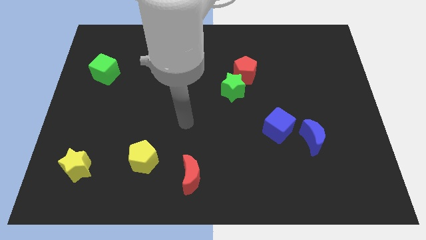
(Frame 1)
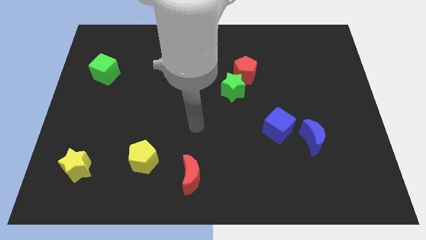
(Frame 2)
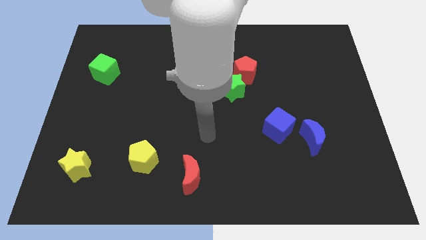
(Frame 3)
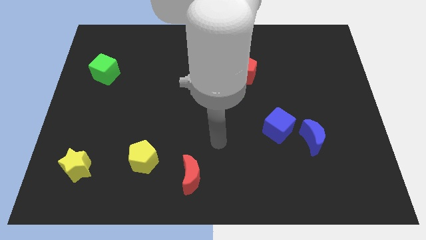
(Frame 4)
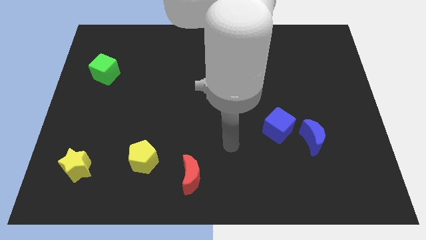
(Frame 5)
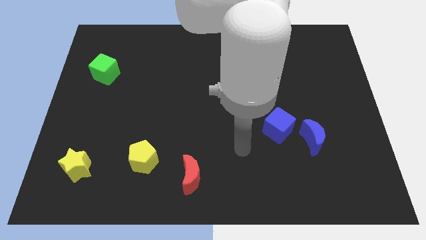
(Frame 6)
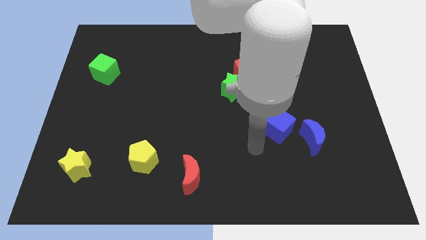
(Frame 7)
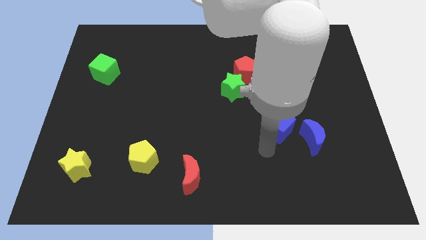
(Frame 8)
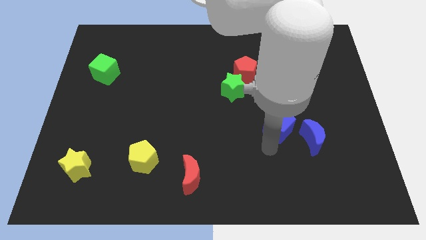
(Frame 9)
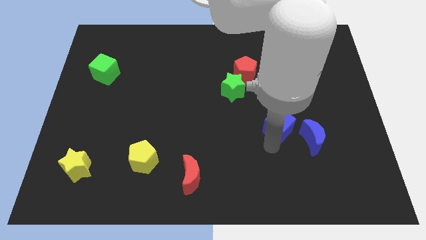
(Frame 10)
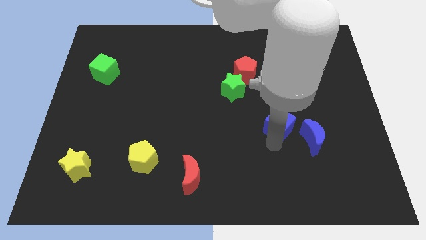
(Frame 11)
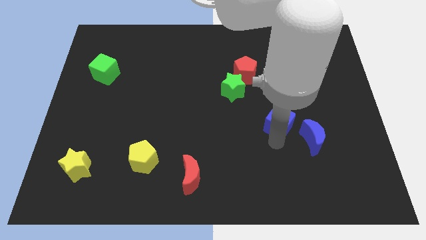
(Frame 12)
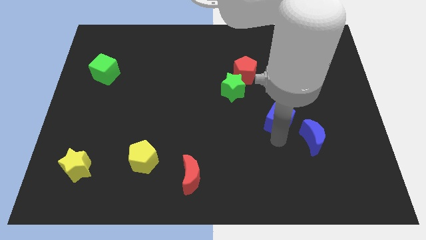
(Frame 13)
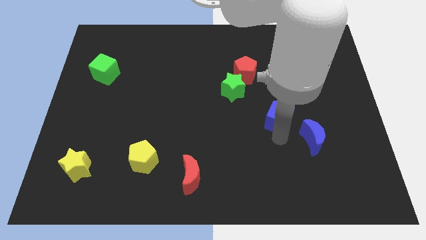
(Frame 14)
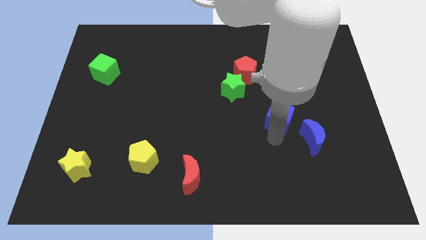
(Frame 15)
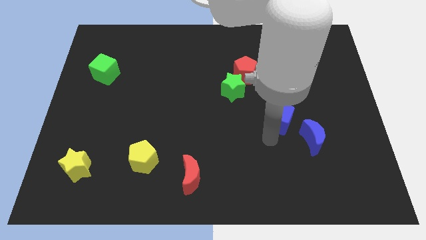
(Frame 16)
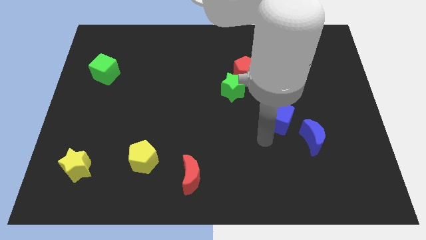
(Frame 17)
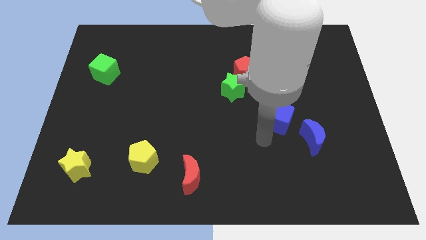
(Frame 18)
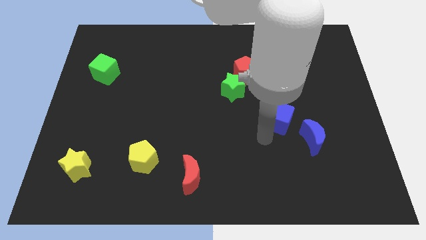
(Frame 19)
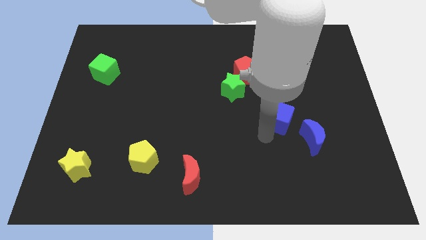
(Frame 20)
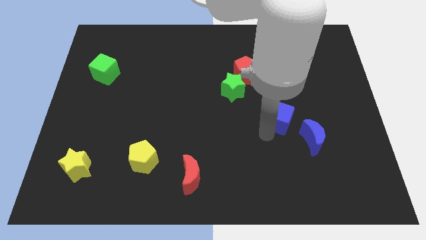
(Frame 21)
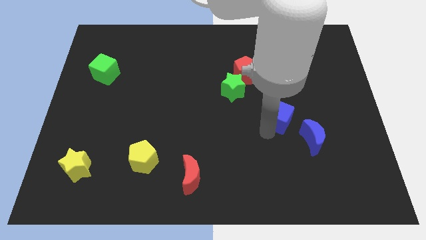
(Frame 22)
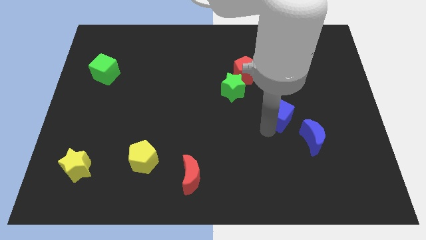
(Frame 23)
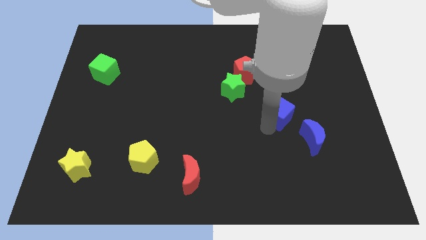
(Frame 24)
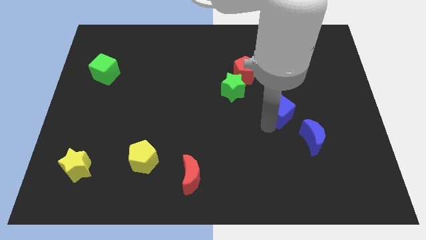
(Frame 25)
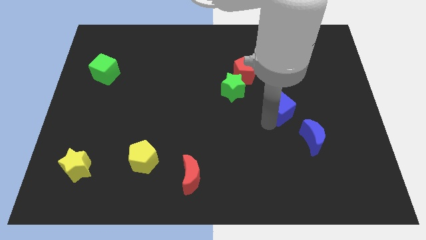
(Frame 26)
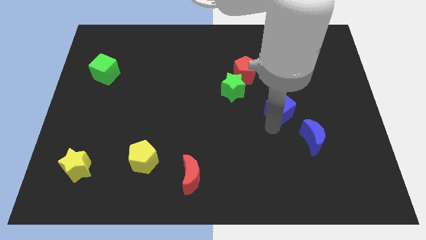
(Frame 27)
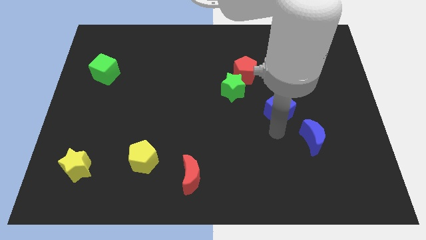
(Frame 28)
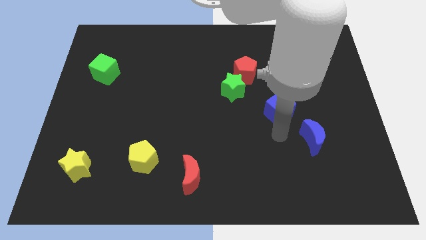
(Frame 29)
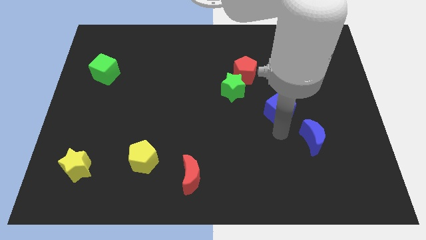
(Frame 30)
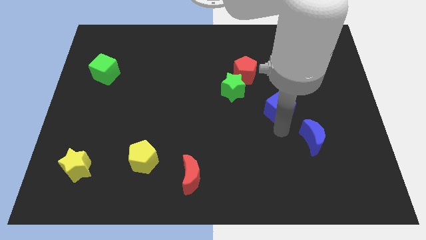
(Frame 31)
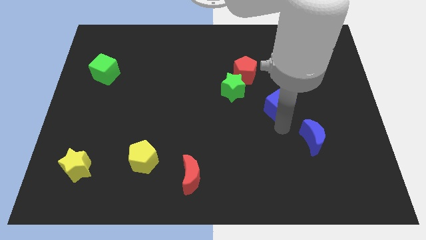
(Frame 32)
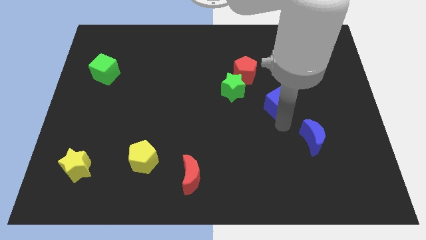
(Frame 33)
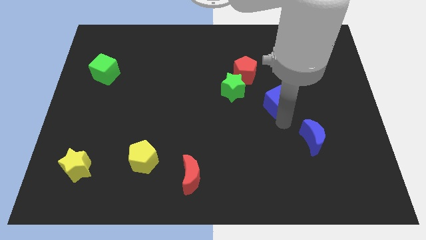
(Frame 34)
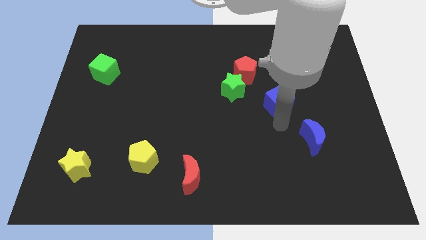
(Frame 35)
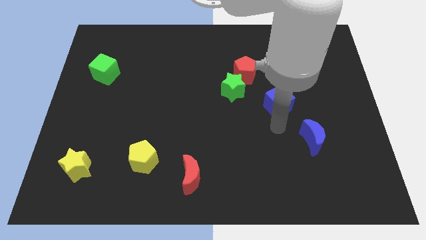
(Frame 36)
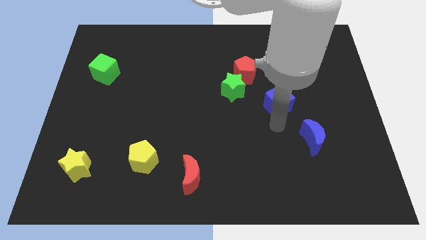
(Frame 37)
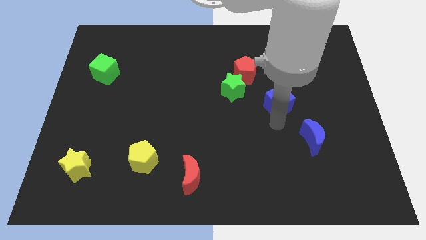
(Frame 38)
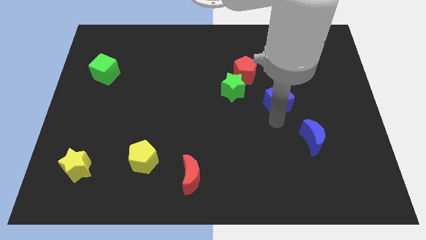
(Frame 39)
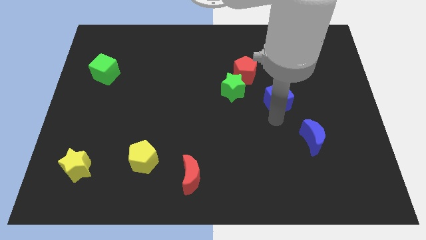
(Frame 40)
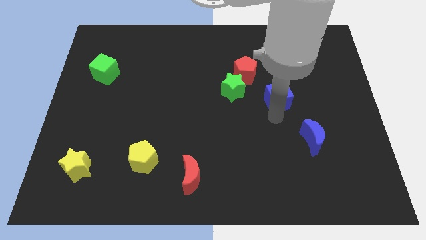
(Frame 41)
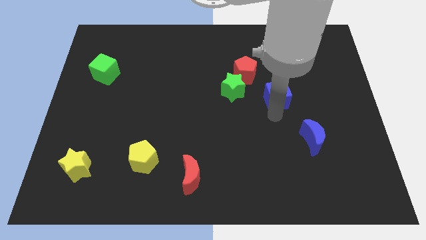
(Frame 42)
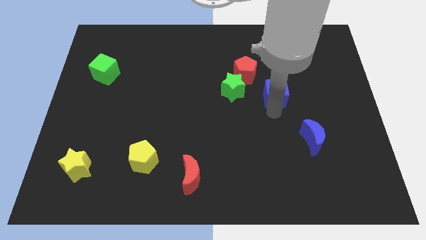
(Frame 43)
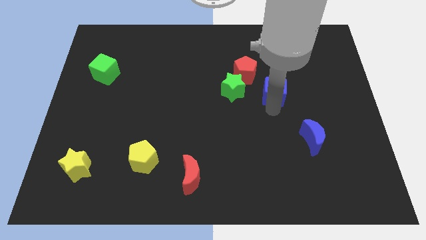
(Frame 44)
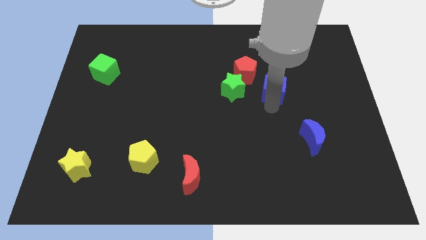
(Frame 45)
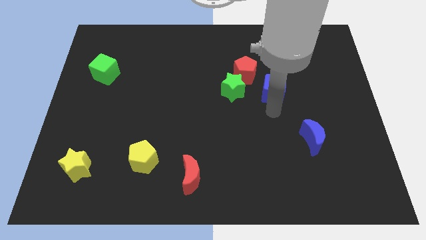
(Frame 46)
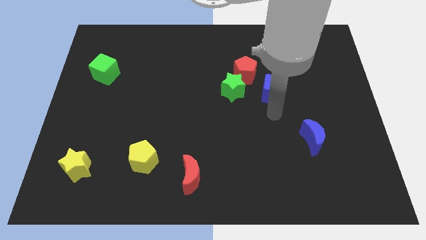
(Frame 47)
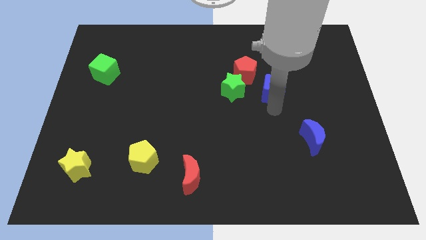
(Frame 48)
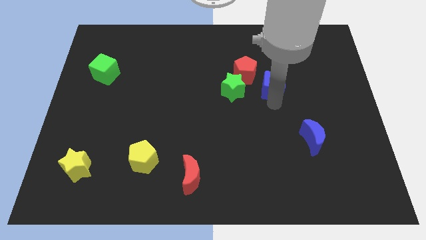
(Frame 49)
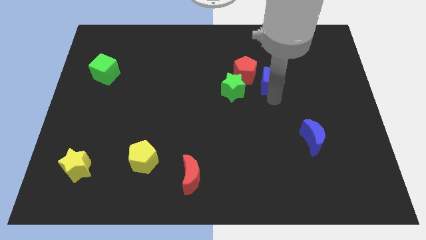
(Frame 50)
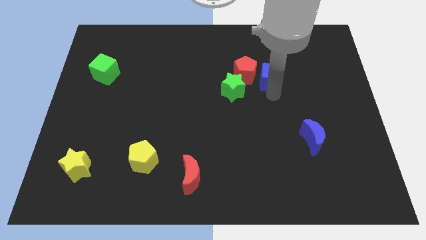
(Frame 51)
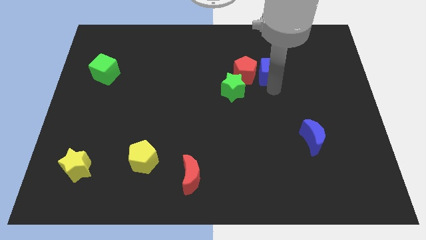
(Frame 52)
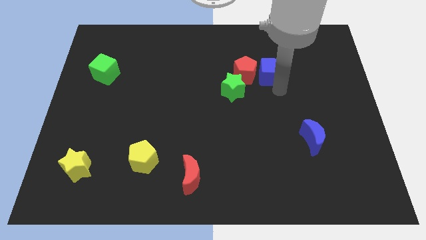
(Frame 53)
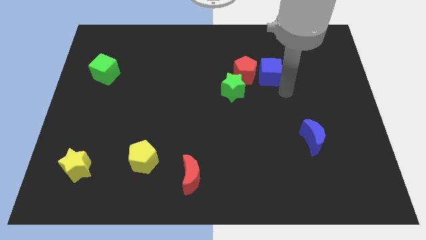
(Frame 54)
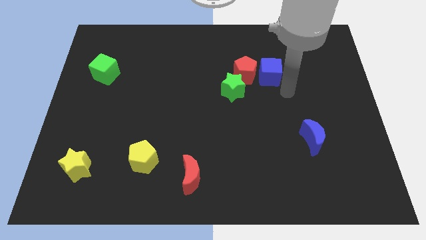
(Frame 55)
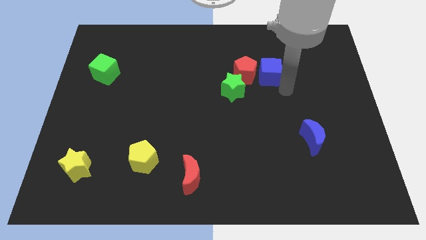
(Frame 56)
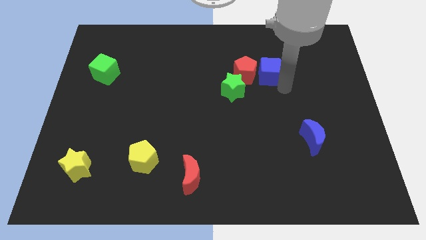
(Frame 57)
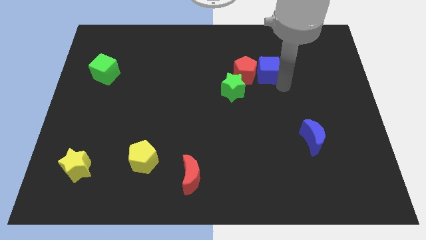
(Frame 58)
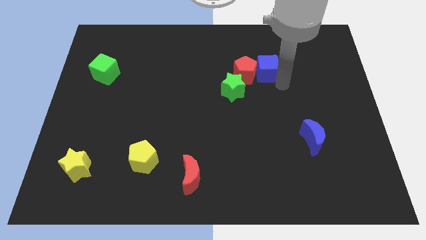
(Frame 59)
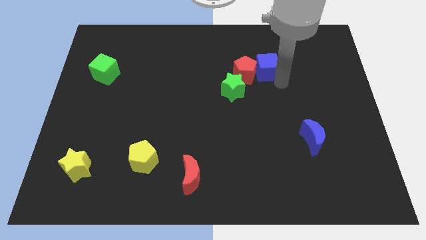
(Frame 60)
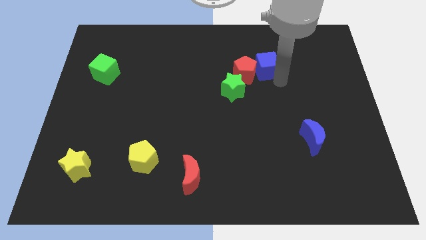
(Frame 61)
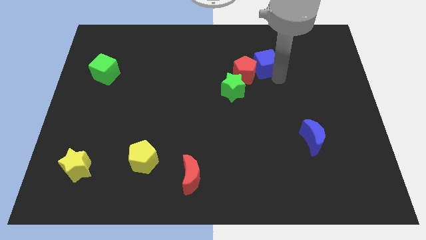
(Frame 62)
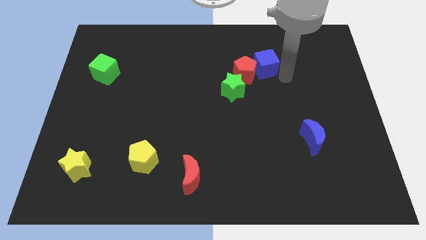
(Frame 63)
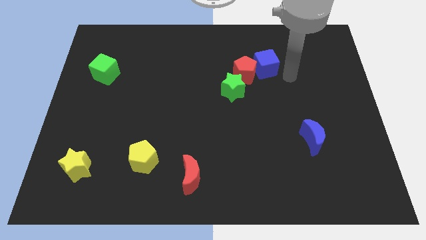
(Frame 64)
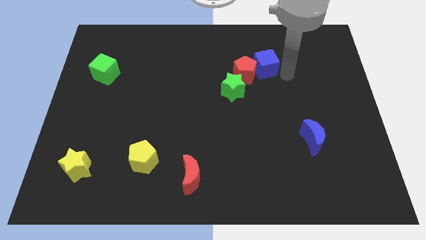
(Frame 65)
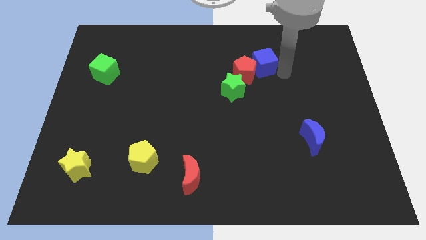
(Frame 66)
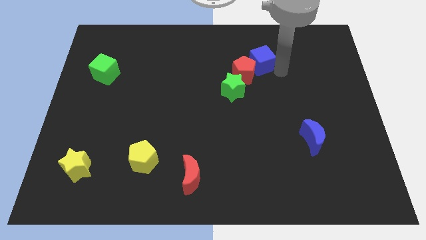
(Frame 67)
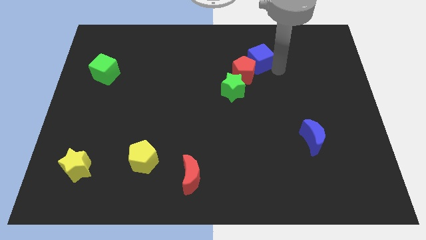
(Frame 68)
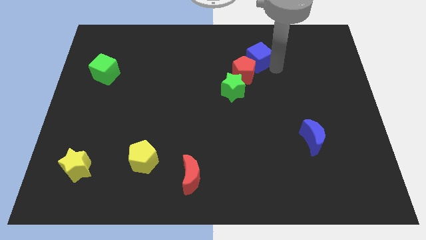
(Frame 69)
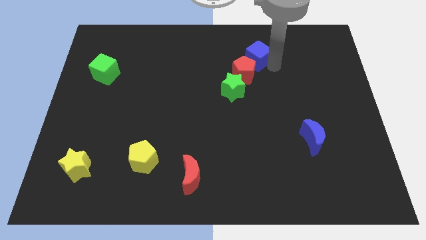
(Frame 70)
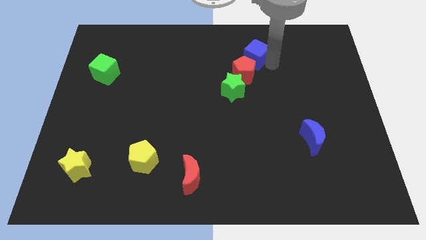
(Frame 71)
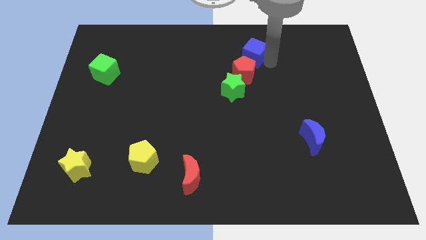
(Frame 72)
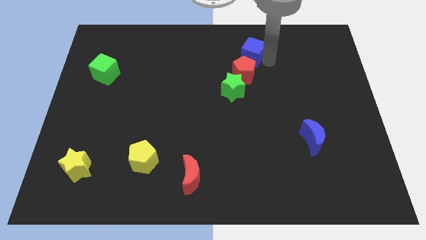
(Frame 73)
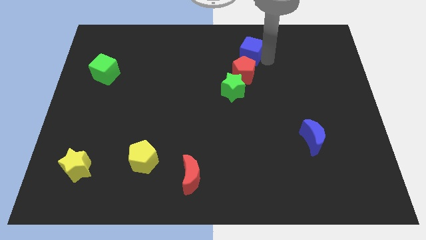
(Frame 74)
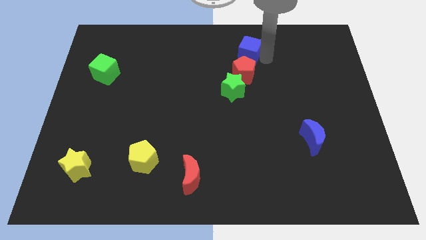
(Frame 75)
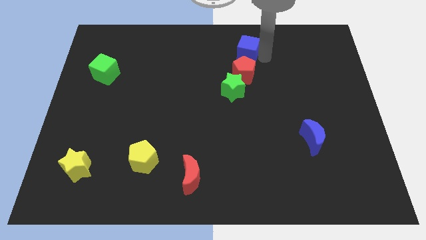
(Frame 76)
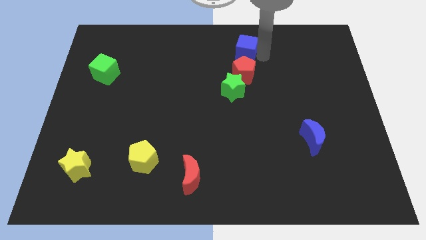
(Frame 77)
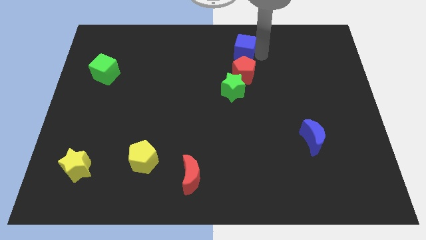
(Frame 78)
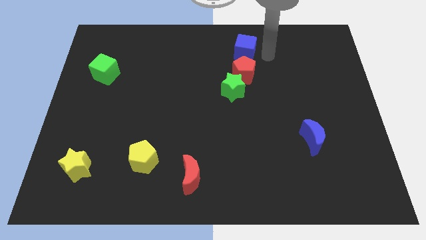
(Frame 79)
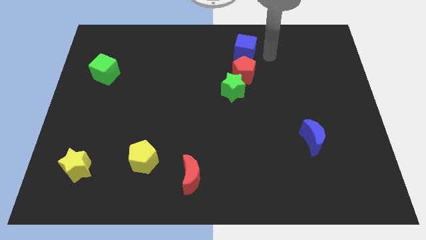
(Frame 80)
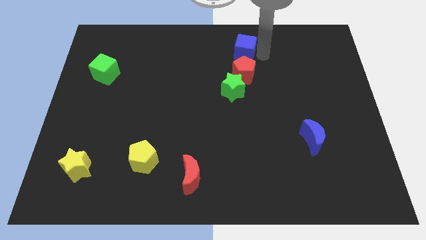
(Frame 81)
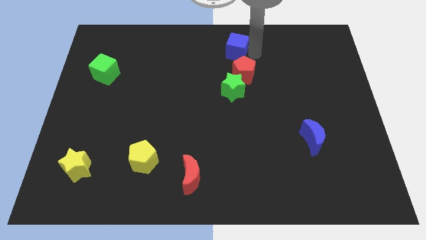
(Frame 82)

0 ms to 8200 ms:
slide the blue cube to the top
